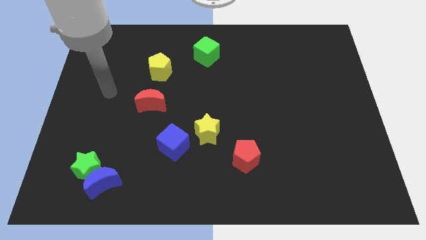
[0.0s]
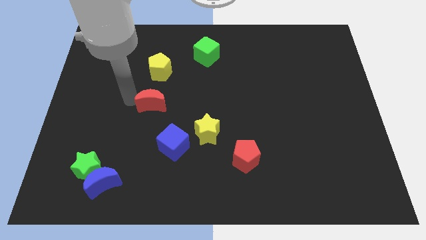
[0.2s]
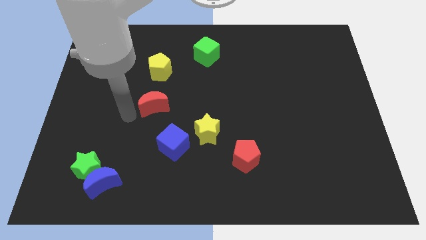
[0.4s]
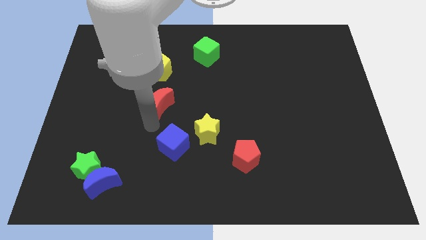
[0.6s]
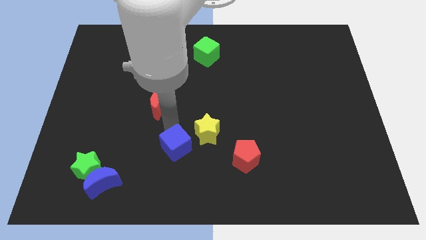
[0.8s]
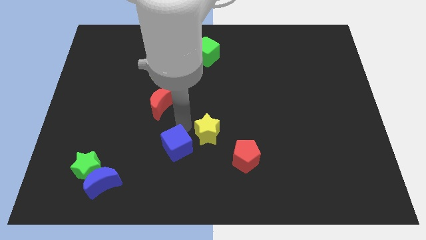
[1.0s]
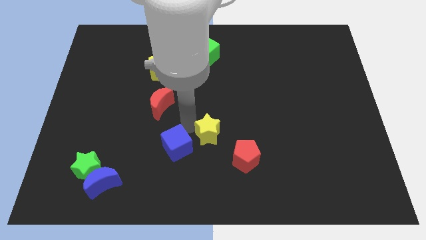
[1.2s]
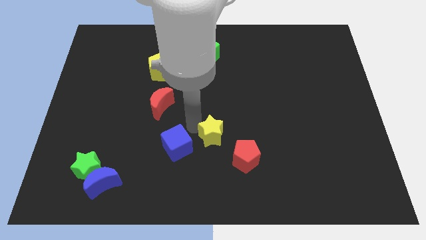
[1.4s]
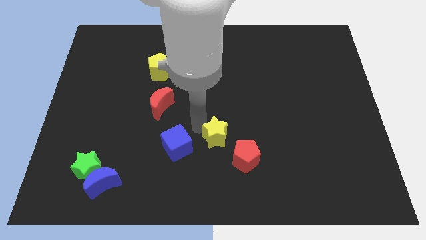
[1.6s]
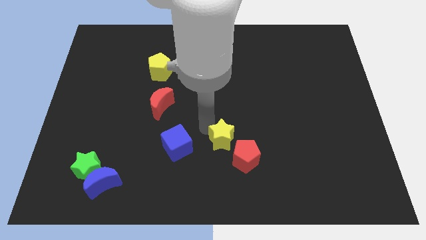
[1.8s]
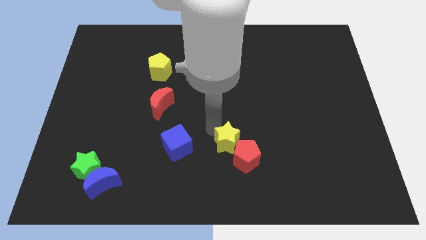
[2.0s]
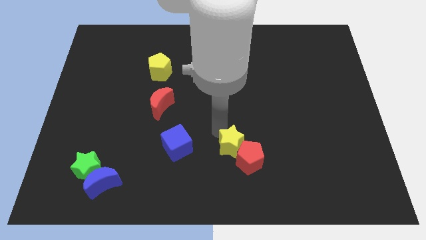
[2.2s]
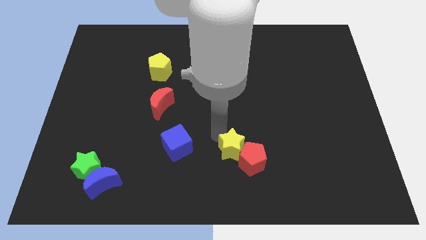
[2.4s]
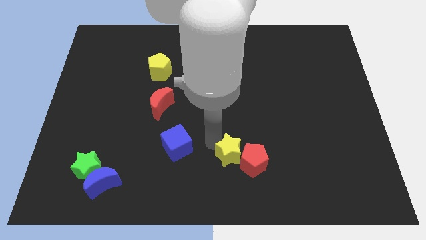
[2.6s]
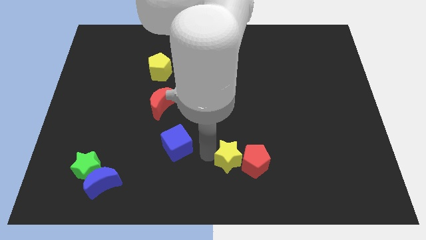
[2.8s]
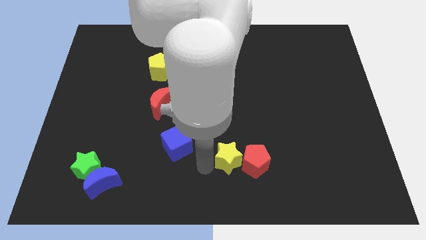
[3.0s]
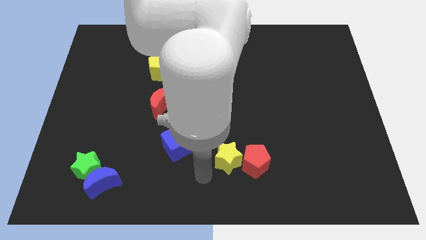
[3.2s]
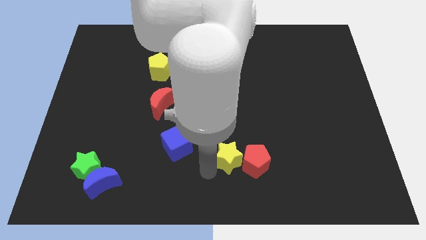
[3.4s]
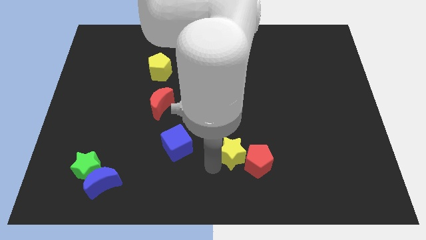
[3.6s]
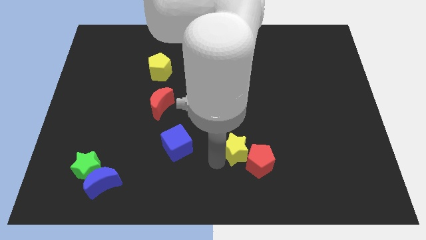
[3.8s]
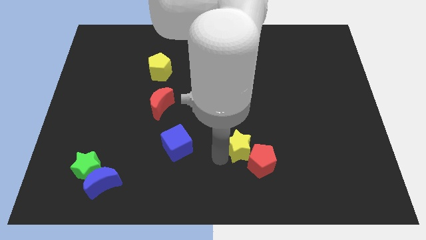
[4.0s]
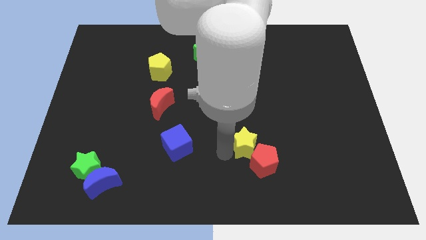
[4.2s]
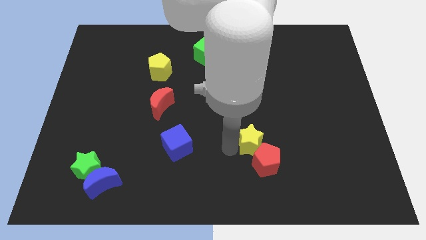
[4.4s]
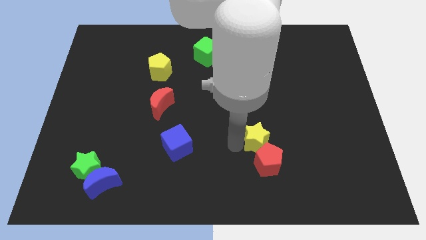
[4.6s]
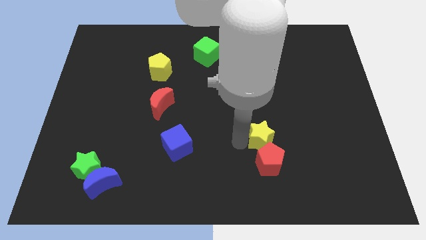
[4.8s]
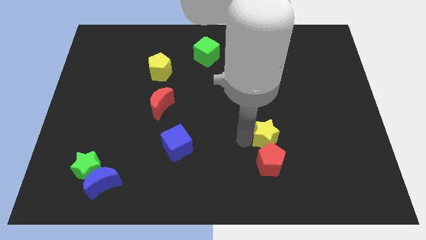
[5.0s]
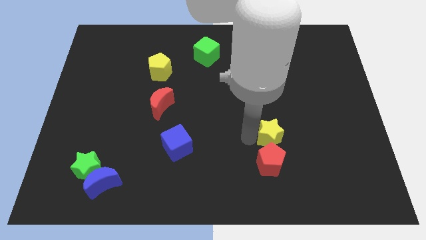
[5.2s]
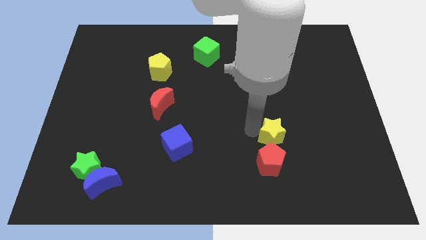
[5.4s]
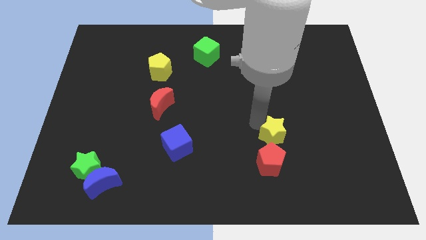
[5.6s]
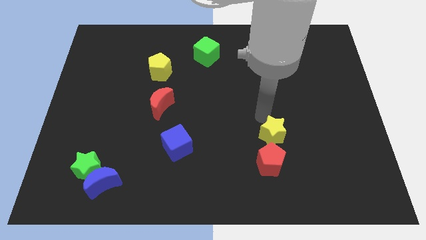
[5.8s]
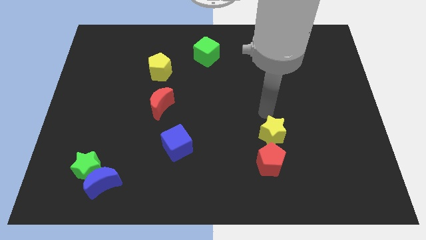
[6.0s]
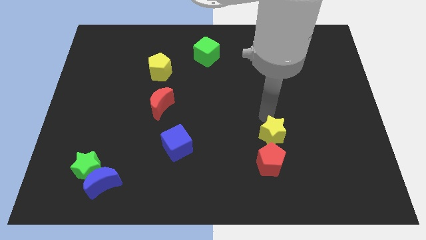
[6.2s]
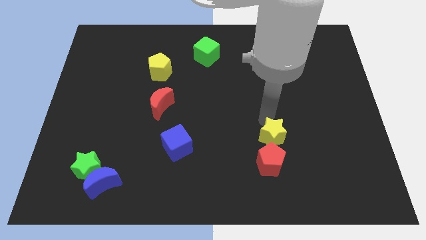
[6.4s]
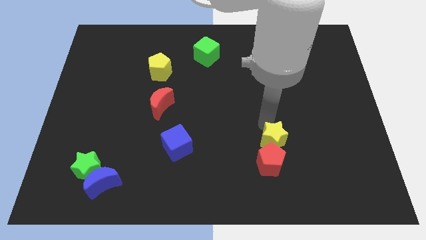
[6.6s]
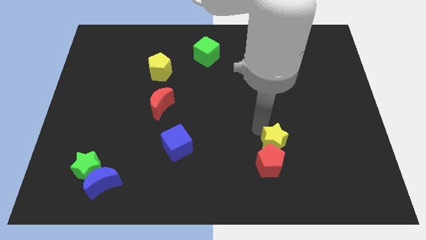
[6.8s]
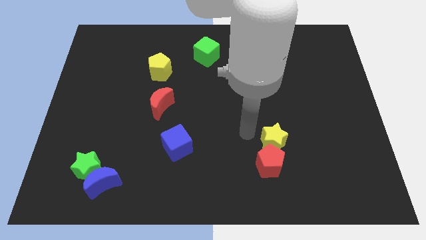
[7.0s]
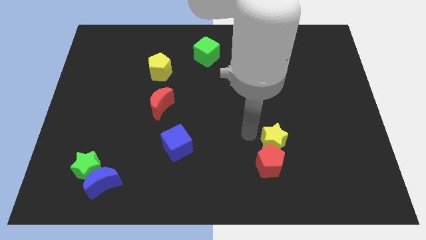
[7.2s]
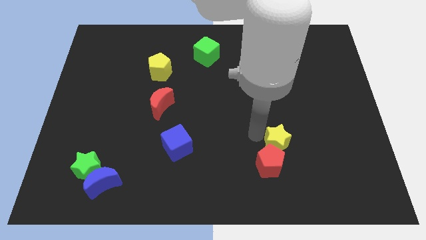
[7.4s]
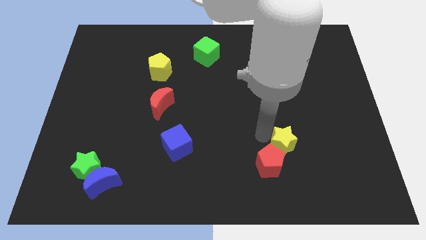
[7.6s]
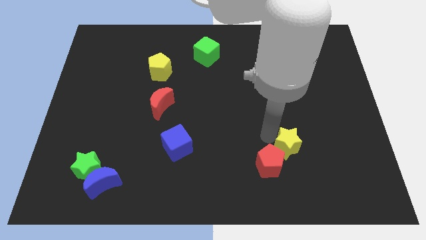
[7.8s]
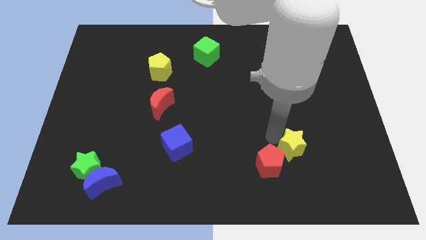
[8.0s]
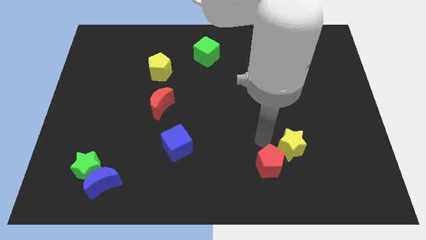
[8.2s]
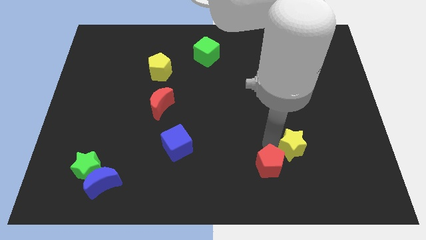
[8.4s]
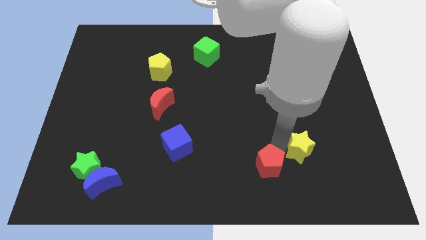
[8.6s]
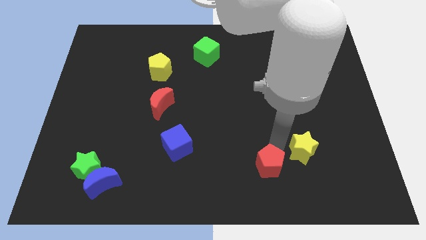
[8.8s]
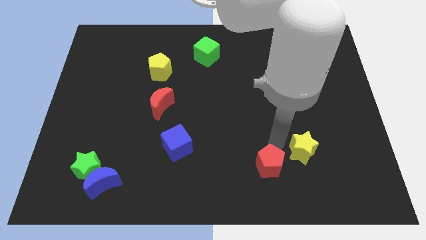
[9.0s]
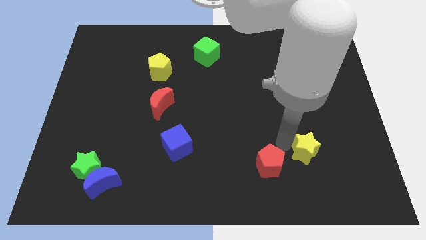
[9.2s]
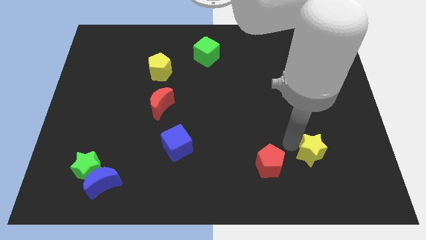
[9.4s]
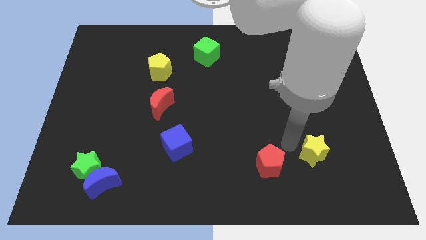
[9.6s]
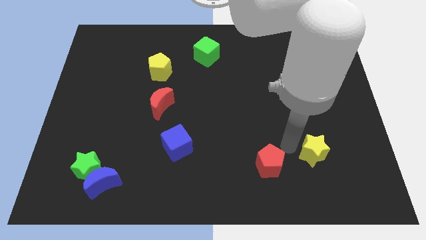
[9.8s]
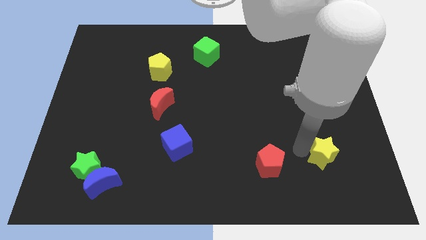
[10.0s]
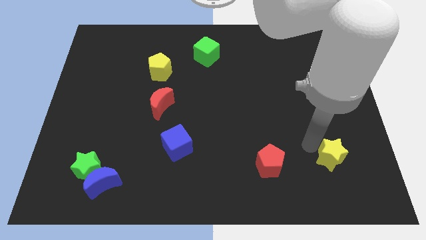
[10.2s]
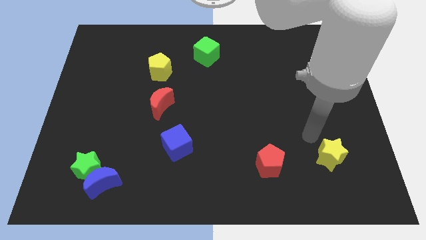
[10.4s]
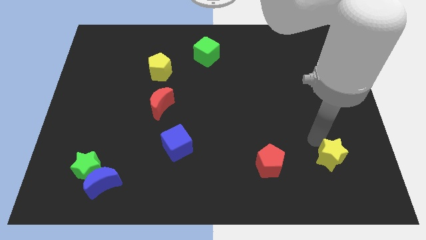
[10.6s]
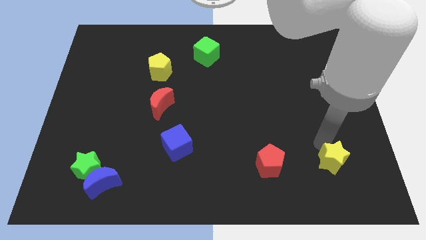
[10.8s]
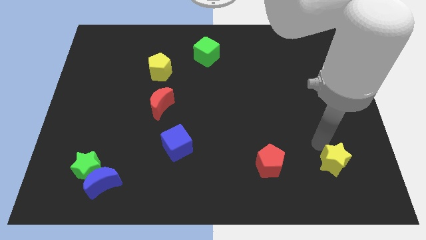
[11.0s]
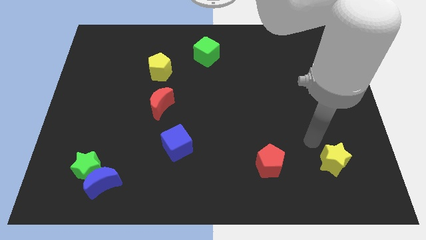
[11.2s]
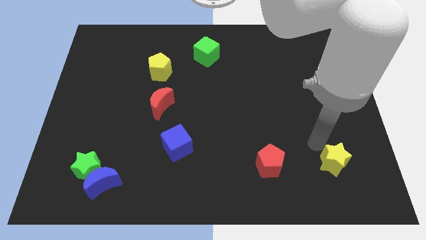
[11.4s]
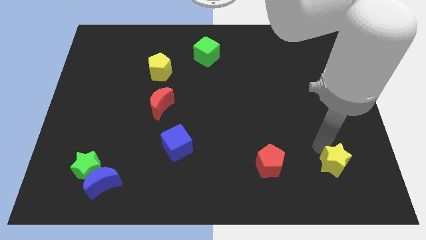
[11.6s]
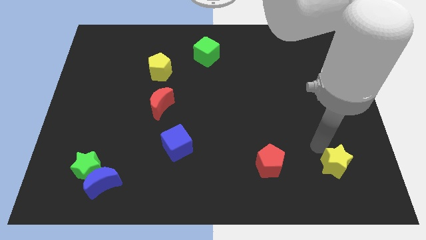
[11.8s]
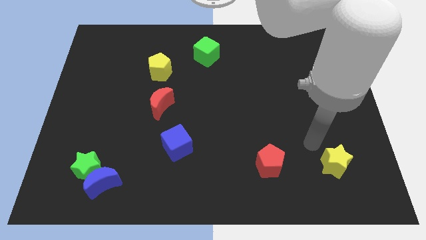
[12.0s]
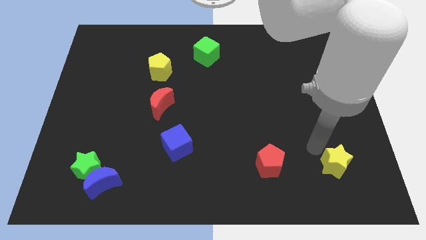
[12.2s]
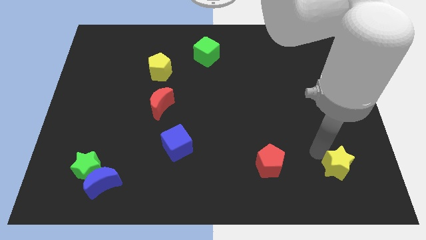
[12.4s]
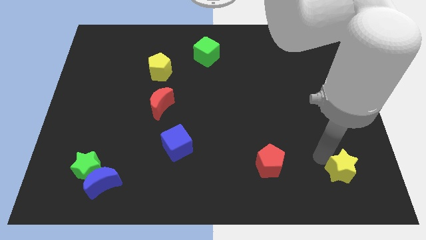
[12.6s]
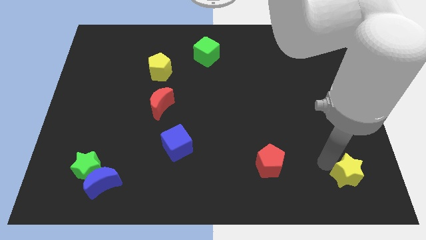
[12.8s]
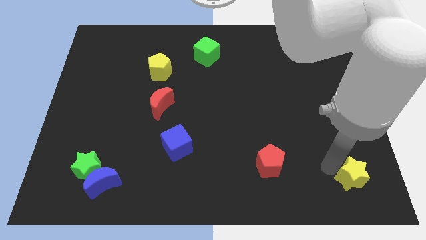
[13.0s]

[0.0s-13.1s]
put the yellow star to the lower right corner

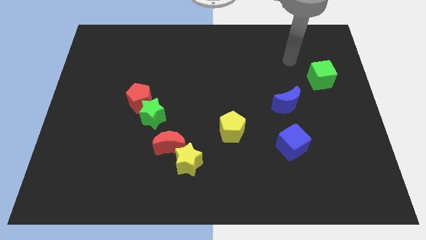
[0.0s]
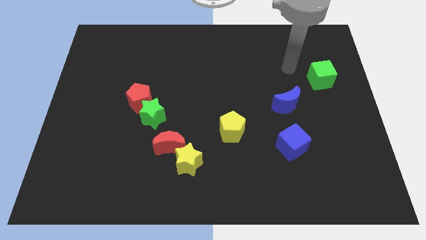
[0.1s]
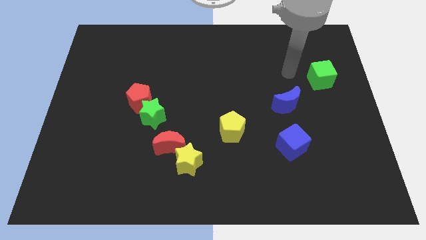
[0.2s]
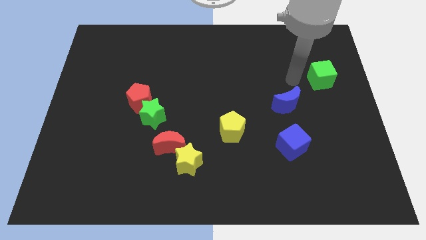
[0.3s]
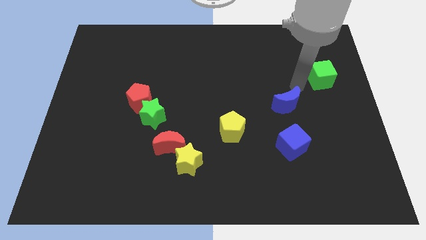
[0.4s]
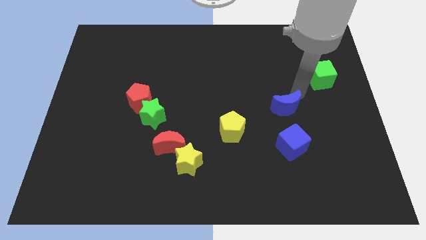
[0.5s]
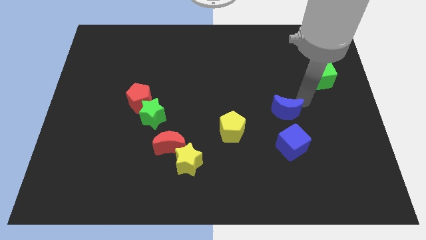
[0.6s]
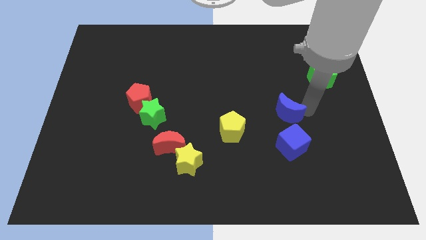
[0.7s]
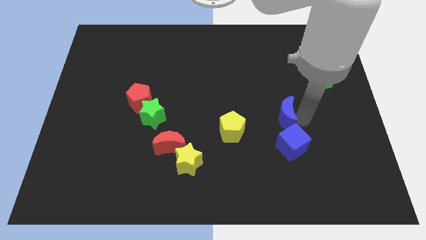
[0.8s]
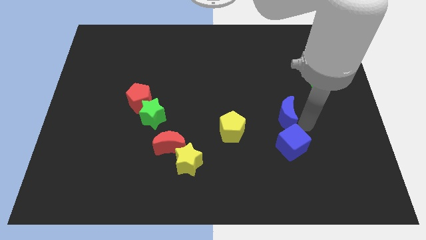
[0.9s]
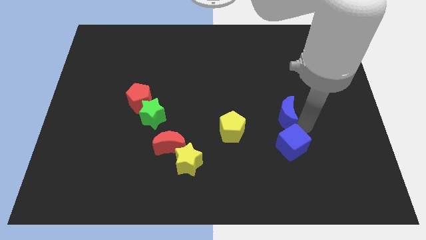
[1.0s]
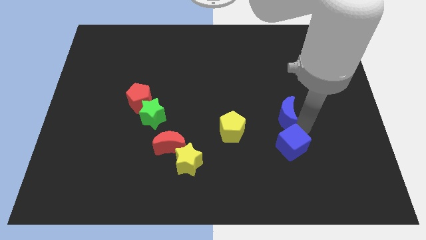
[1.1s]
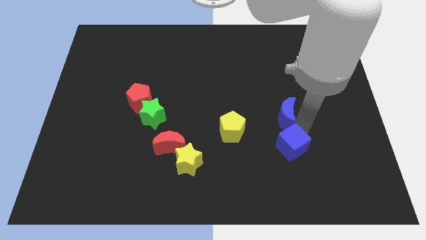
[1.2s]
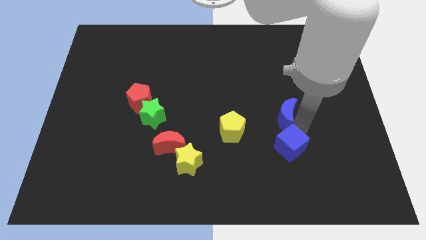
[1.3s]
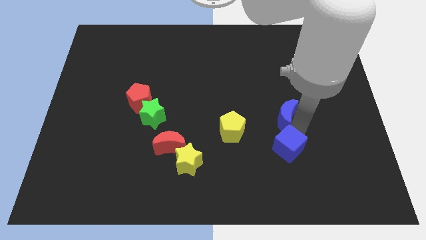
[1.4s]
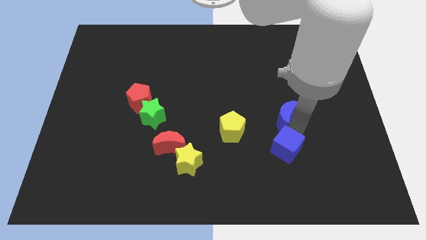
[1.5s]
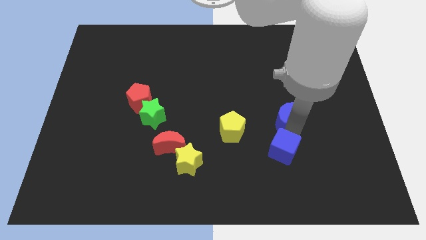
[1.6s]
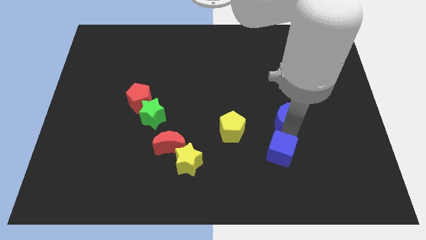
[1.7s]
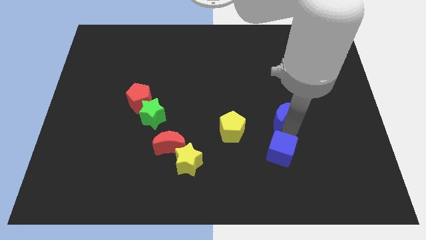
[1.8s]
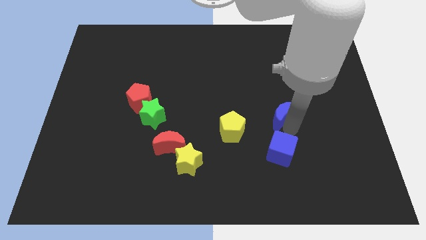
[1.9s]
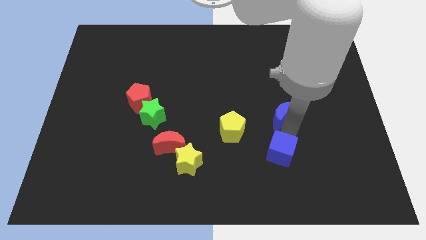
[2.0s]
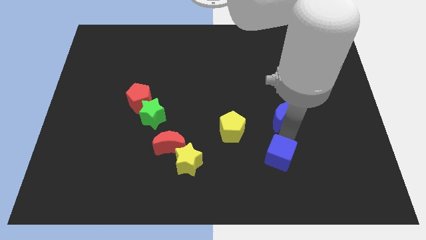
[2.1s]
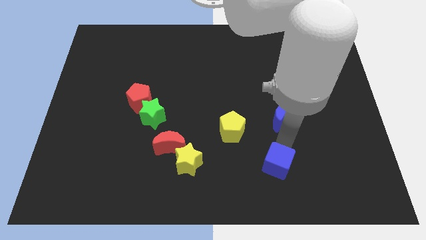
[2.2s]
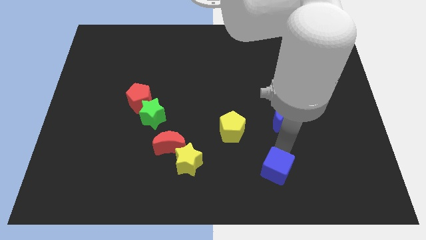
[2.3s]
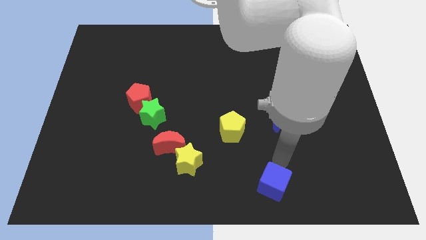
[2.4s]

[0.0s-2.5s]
slide the blue cube to the bottom
